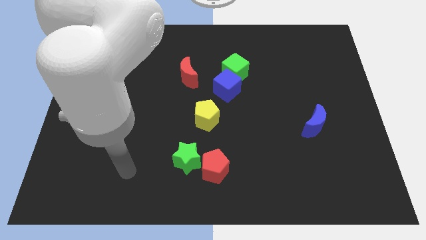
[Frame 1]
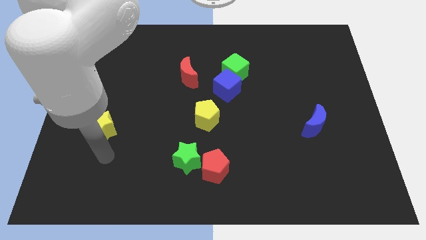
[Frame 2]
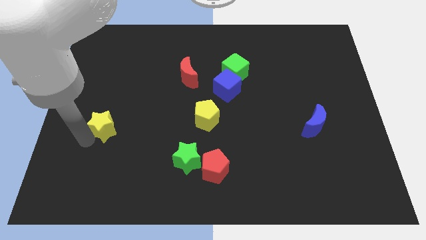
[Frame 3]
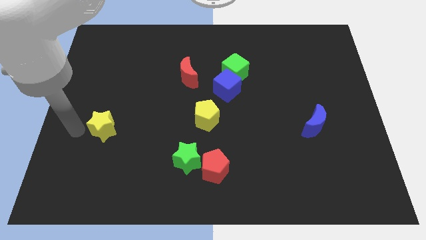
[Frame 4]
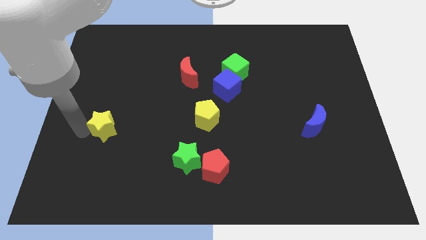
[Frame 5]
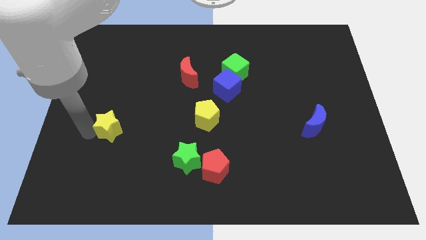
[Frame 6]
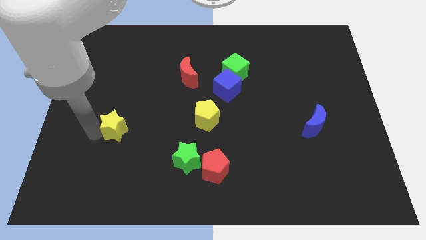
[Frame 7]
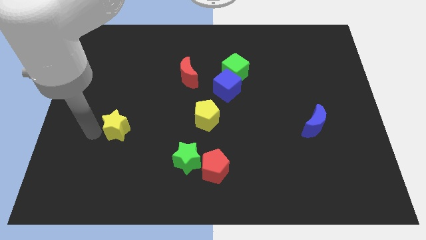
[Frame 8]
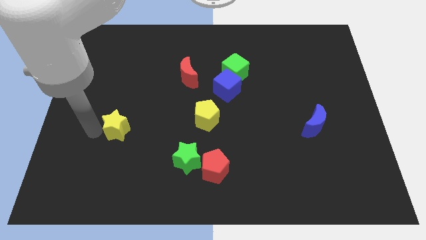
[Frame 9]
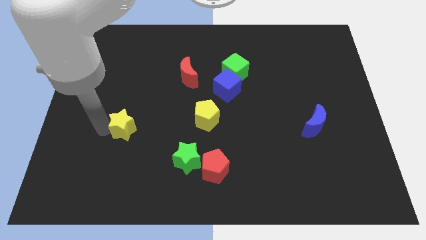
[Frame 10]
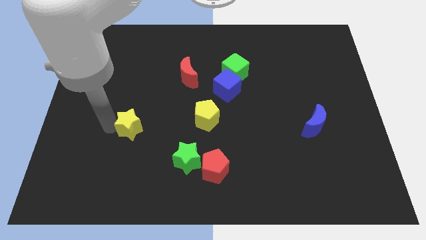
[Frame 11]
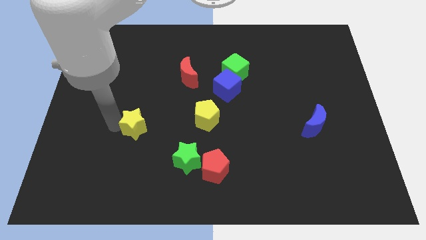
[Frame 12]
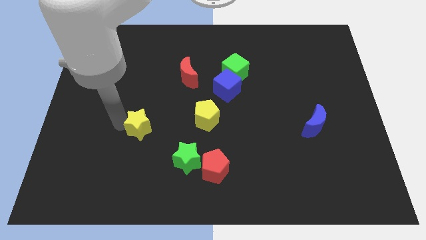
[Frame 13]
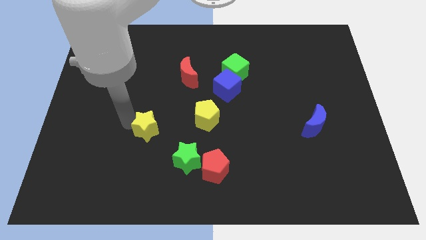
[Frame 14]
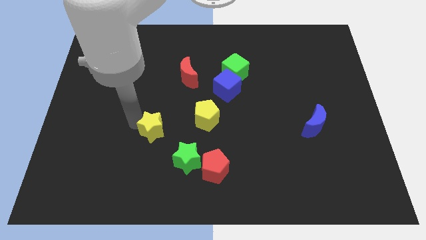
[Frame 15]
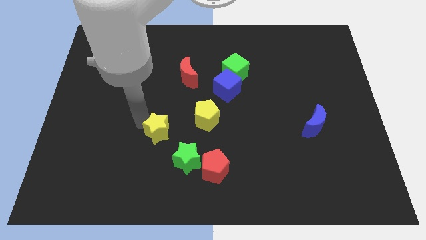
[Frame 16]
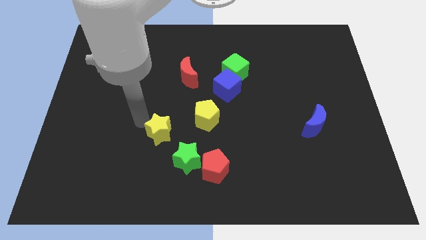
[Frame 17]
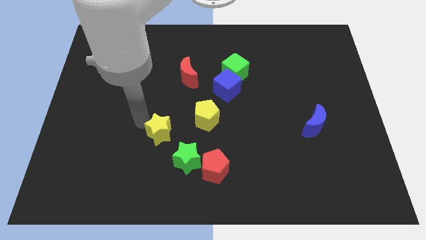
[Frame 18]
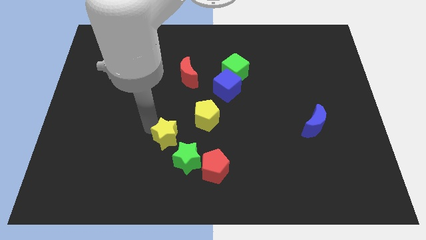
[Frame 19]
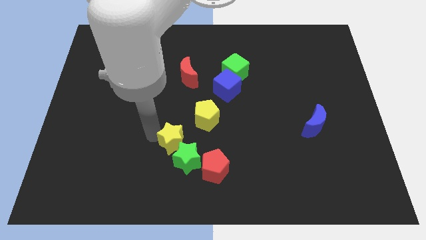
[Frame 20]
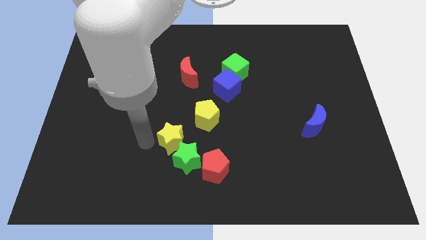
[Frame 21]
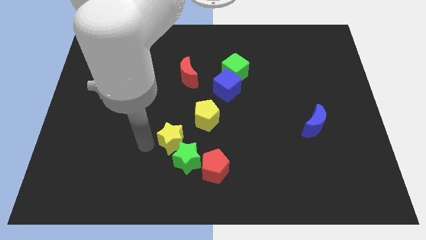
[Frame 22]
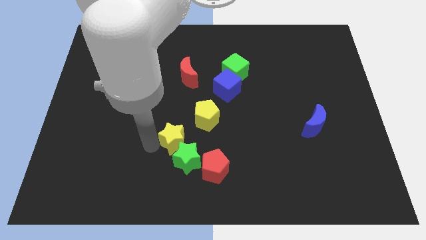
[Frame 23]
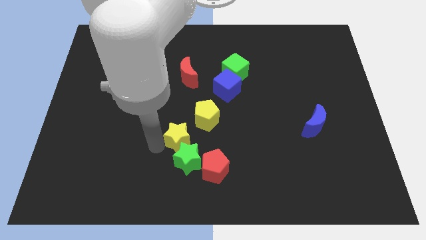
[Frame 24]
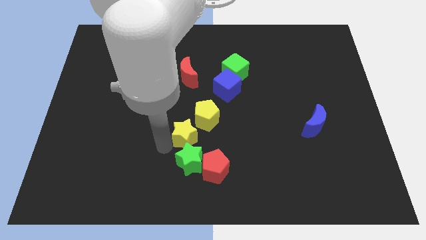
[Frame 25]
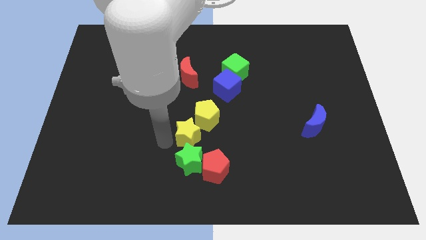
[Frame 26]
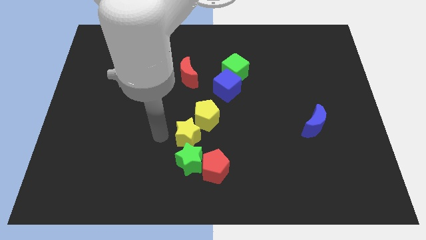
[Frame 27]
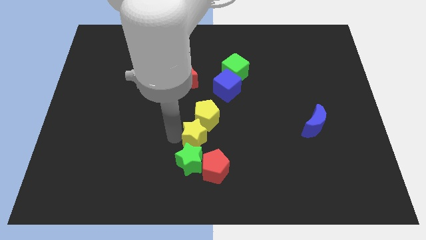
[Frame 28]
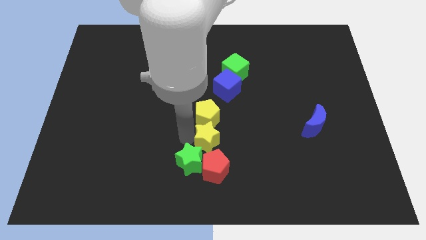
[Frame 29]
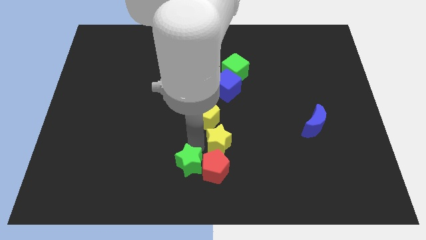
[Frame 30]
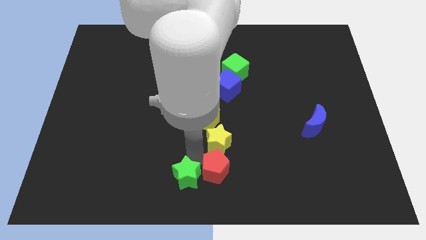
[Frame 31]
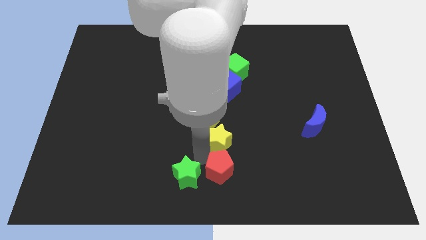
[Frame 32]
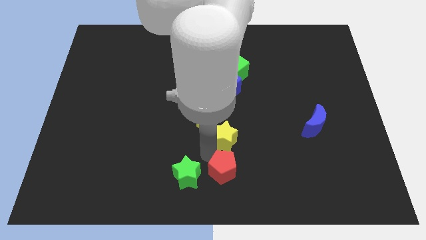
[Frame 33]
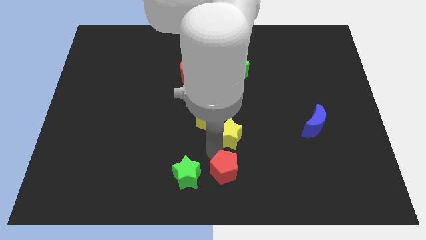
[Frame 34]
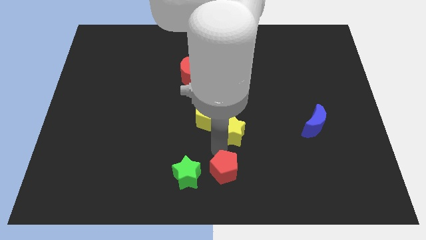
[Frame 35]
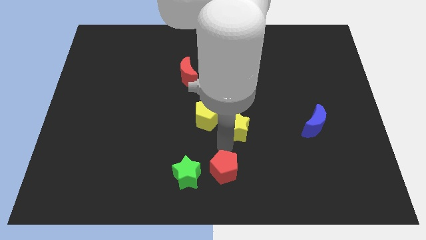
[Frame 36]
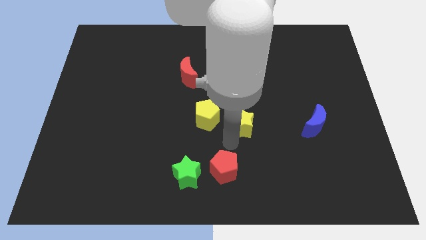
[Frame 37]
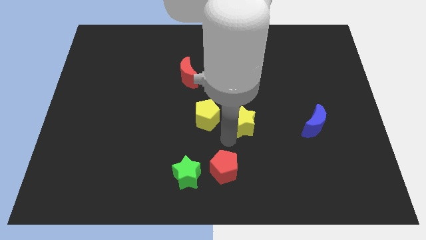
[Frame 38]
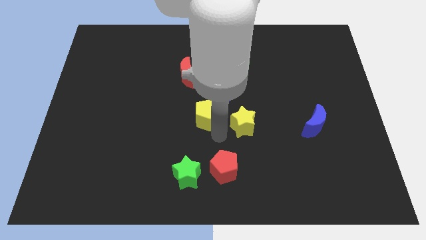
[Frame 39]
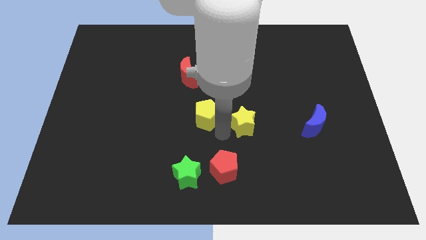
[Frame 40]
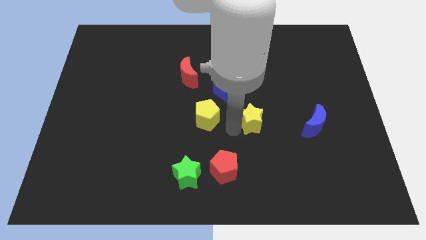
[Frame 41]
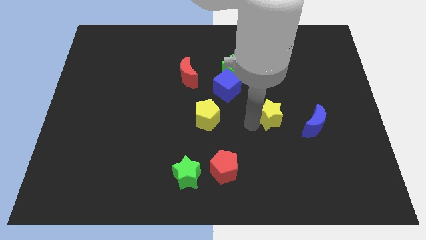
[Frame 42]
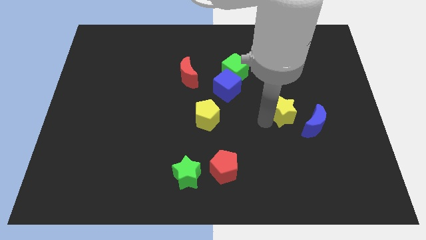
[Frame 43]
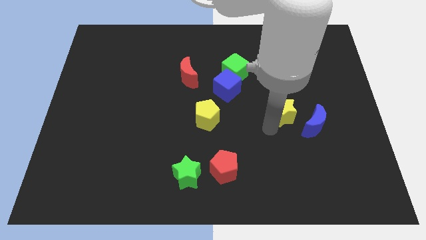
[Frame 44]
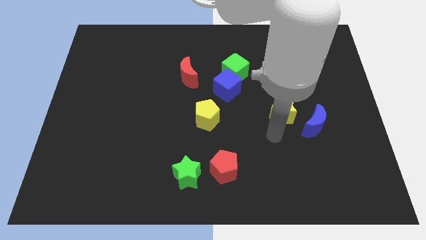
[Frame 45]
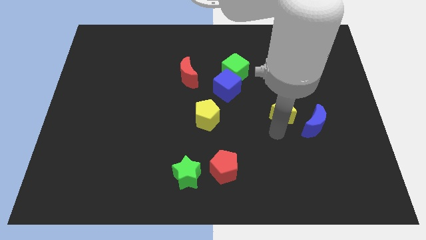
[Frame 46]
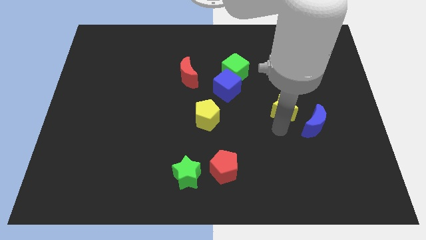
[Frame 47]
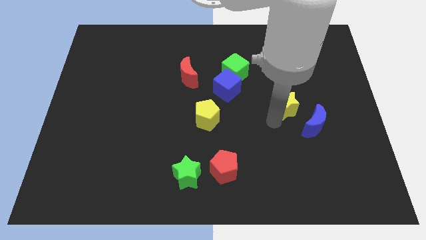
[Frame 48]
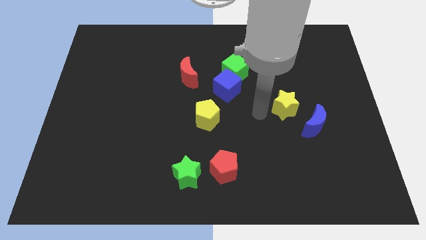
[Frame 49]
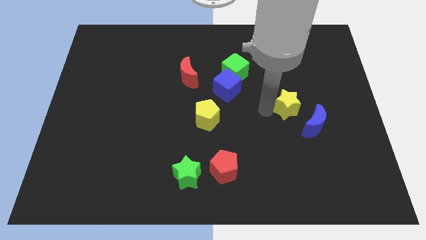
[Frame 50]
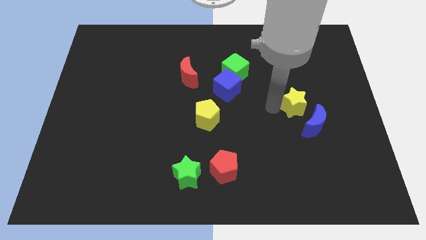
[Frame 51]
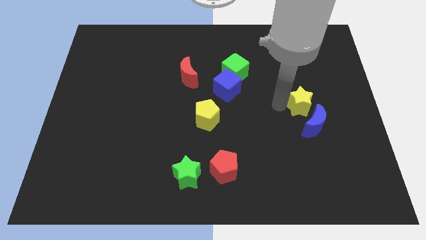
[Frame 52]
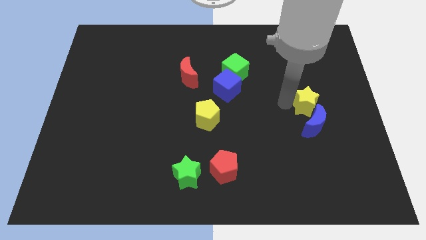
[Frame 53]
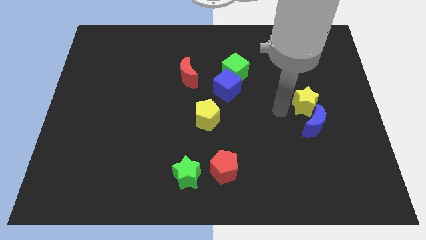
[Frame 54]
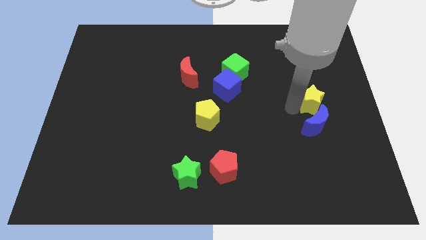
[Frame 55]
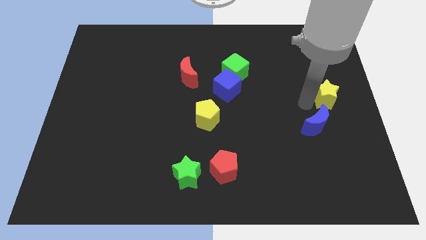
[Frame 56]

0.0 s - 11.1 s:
slide the yellow star to the center right

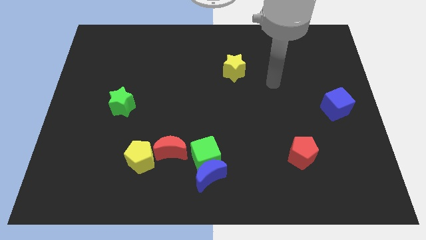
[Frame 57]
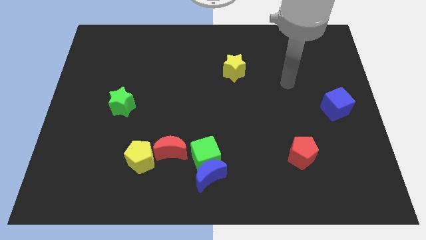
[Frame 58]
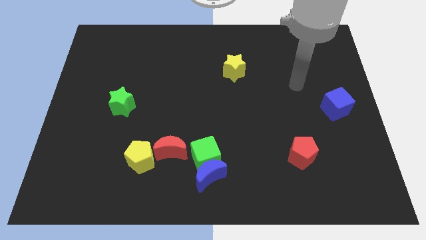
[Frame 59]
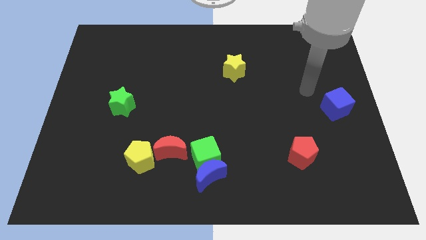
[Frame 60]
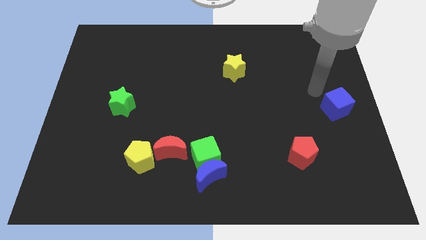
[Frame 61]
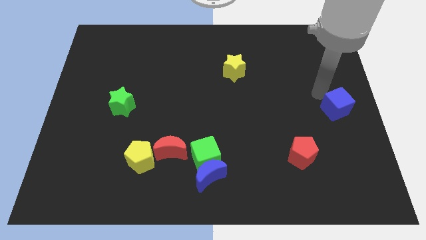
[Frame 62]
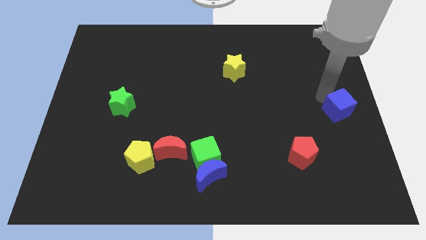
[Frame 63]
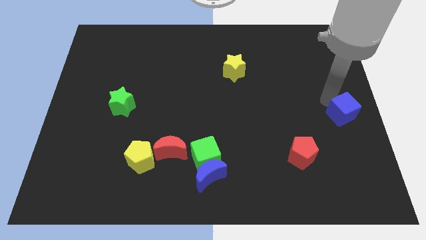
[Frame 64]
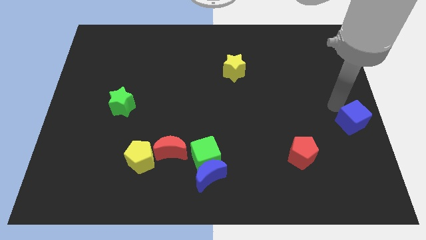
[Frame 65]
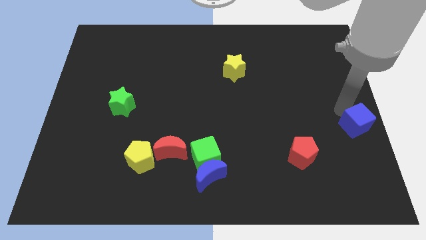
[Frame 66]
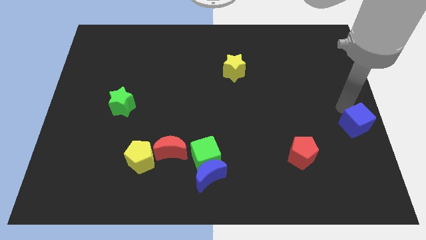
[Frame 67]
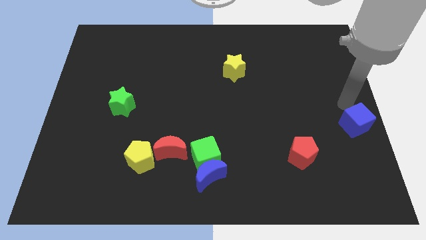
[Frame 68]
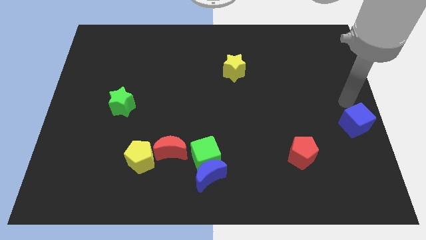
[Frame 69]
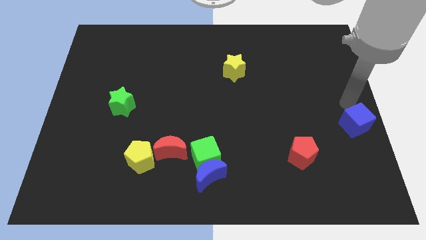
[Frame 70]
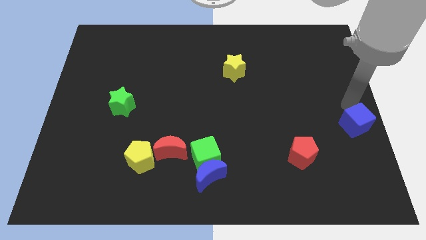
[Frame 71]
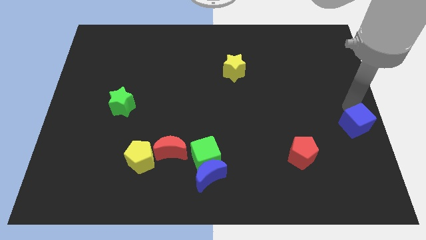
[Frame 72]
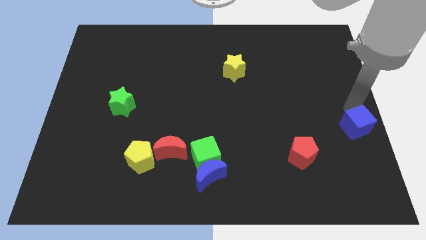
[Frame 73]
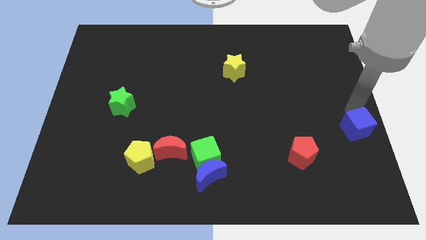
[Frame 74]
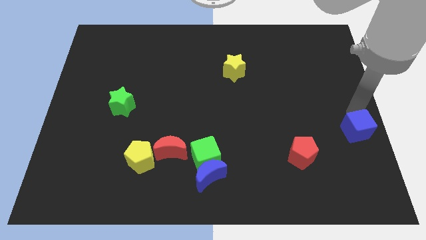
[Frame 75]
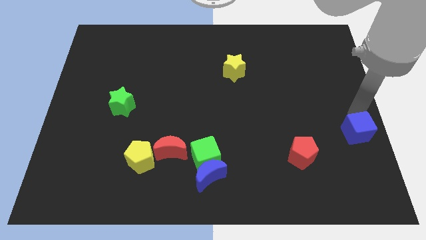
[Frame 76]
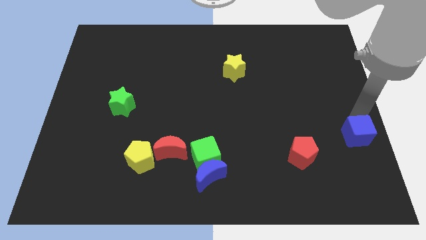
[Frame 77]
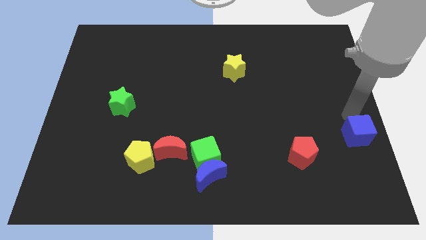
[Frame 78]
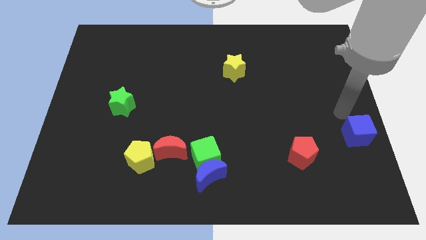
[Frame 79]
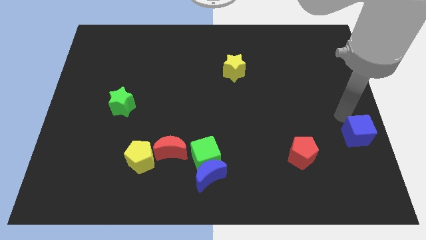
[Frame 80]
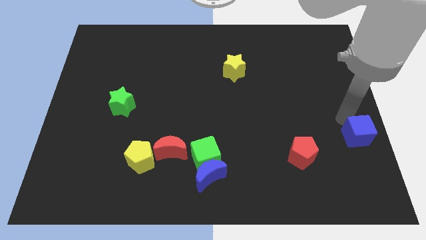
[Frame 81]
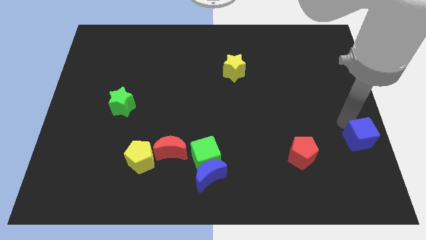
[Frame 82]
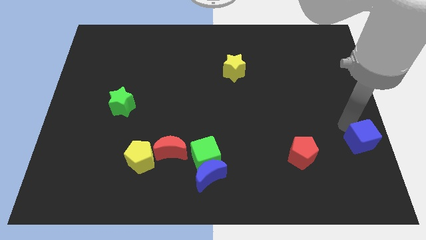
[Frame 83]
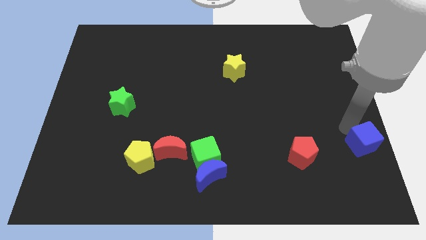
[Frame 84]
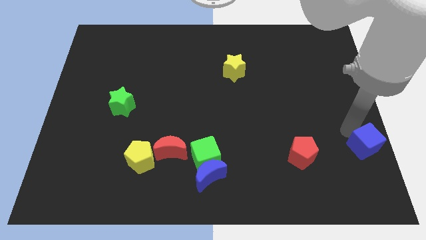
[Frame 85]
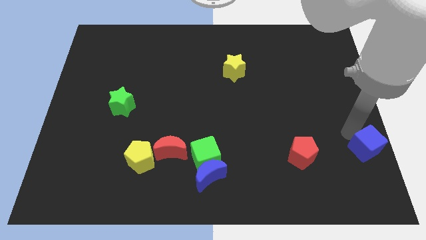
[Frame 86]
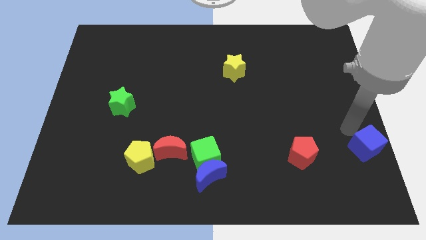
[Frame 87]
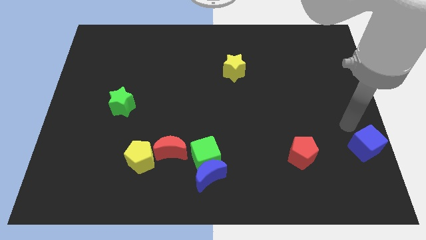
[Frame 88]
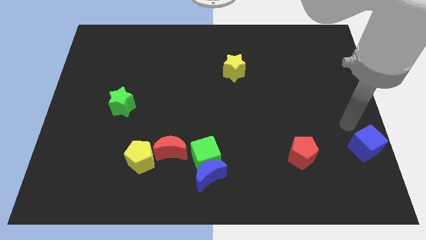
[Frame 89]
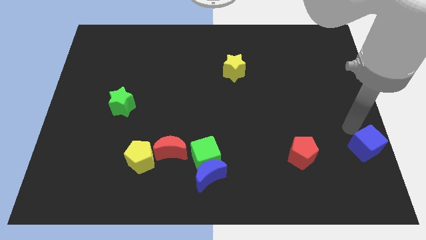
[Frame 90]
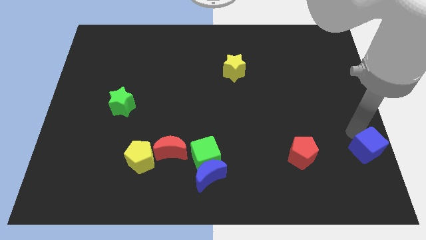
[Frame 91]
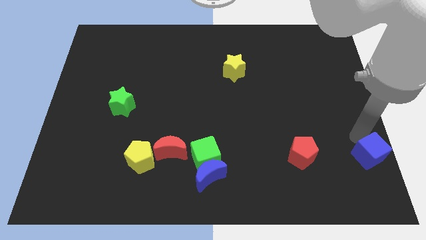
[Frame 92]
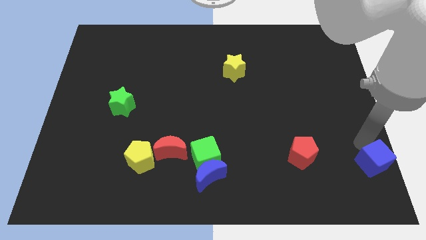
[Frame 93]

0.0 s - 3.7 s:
put the blue cube to the lower right corner
